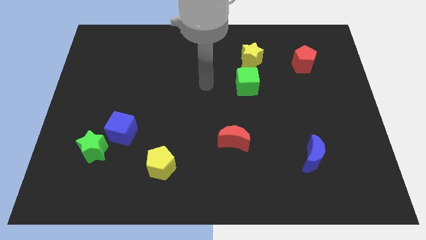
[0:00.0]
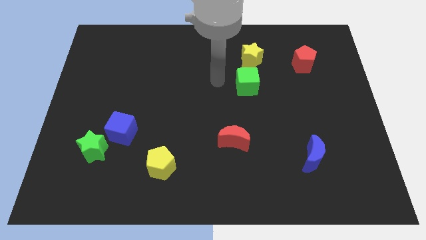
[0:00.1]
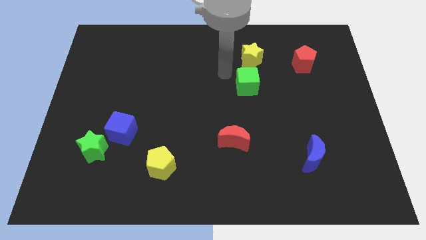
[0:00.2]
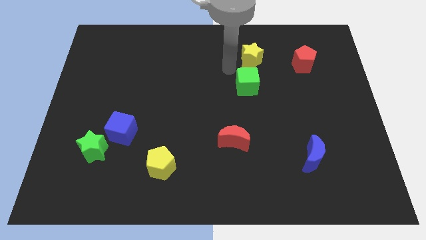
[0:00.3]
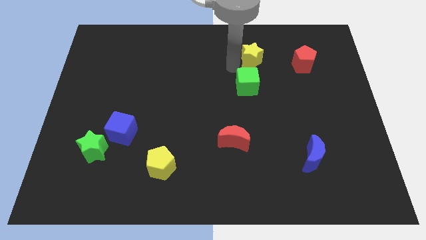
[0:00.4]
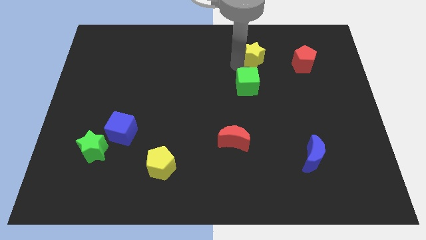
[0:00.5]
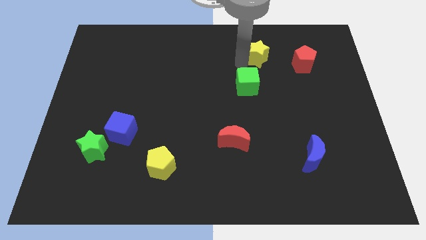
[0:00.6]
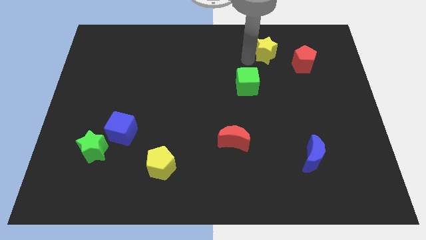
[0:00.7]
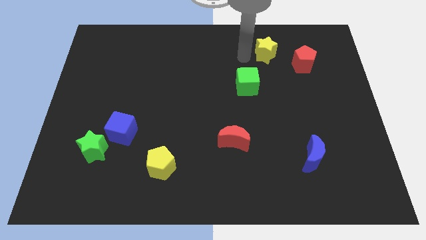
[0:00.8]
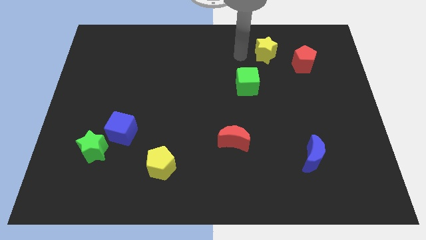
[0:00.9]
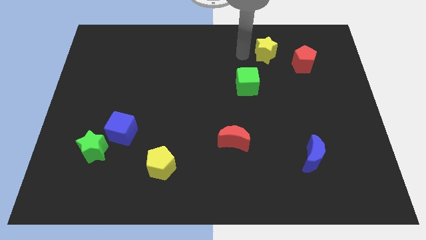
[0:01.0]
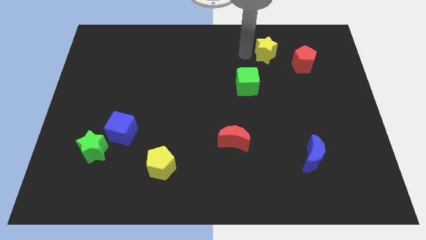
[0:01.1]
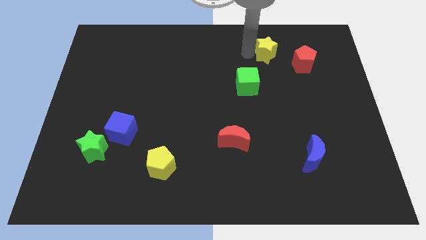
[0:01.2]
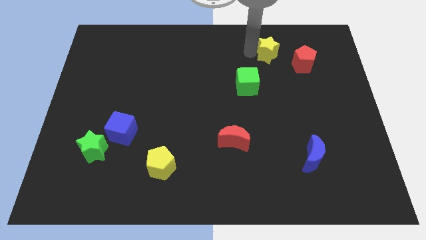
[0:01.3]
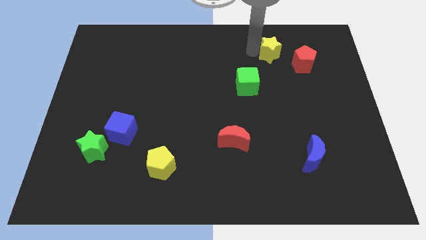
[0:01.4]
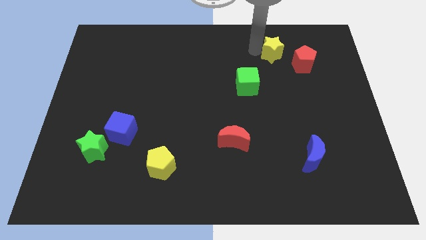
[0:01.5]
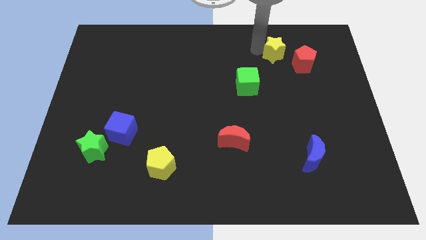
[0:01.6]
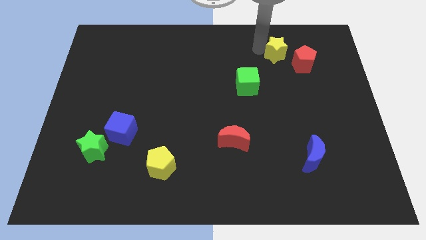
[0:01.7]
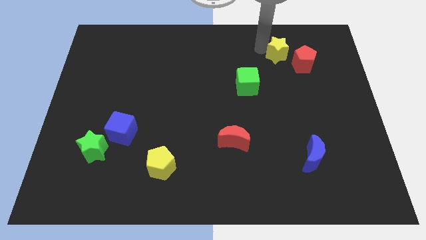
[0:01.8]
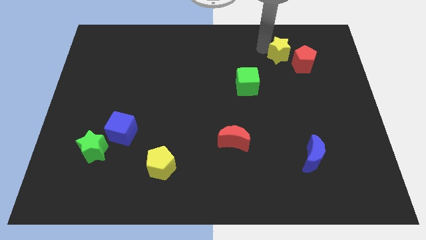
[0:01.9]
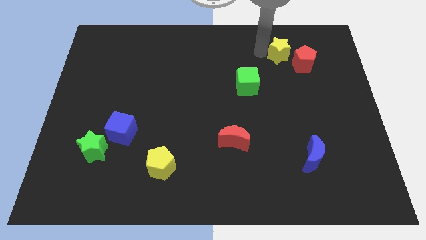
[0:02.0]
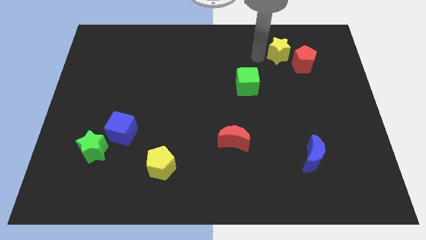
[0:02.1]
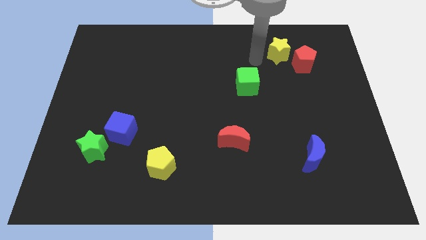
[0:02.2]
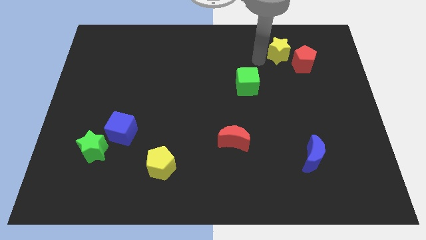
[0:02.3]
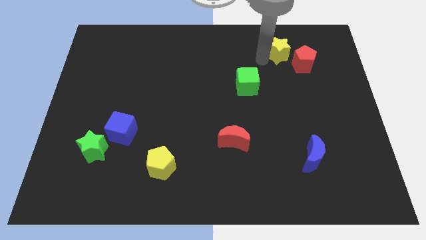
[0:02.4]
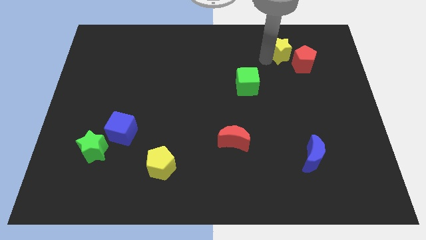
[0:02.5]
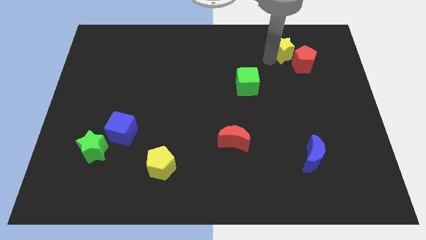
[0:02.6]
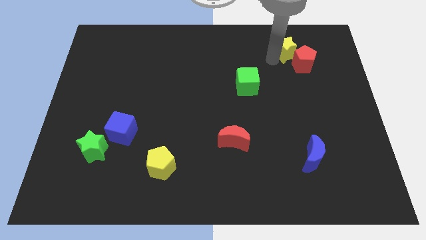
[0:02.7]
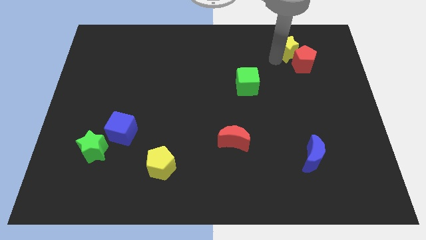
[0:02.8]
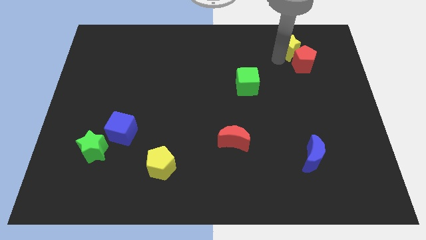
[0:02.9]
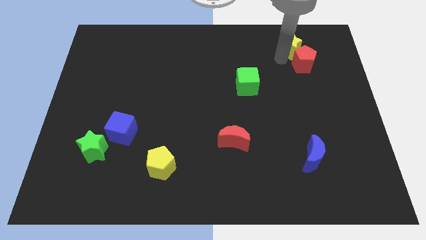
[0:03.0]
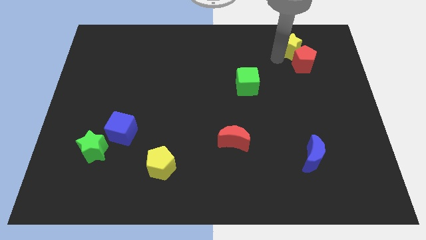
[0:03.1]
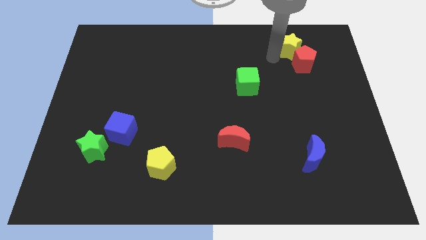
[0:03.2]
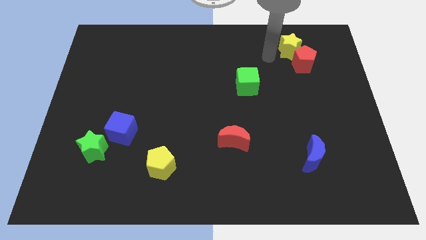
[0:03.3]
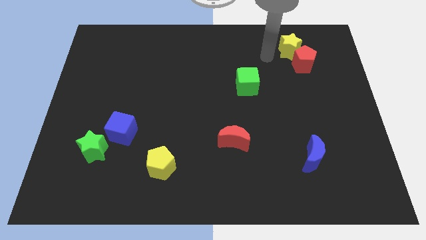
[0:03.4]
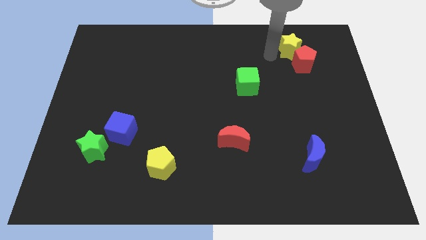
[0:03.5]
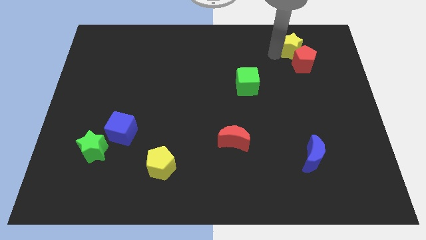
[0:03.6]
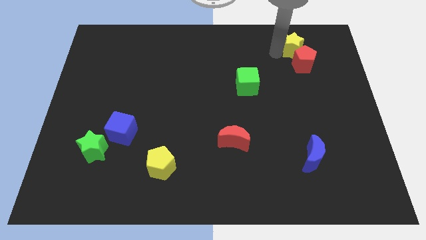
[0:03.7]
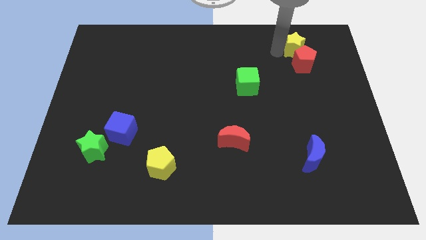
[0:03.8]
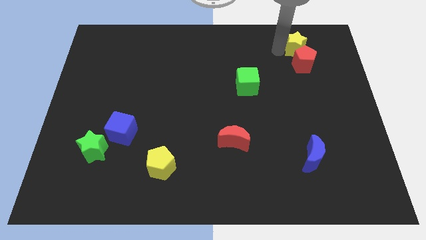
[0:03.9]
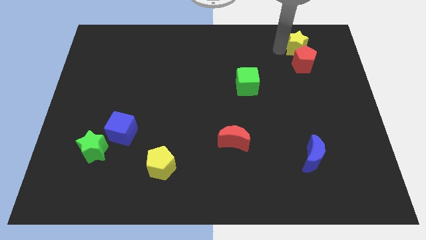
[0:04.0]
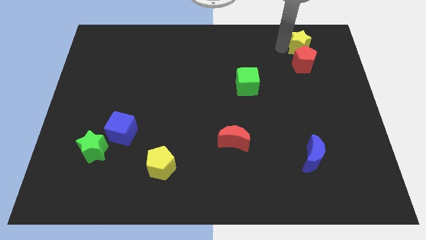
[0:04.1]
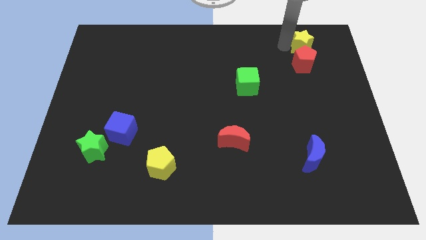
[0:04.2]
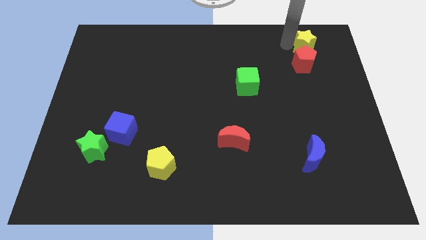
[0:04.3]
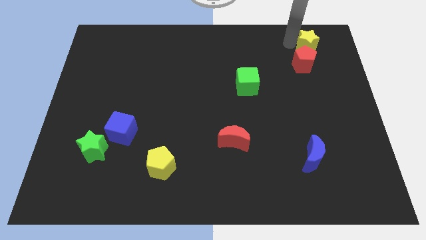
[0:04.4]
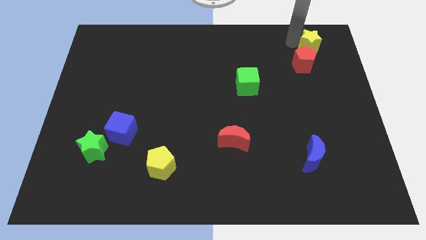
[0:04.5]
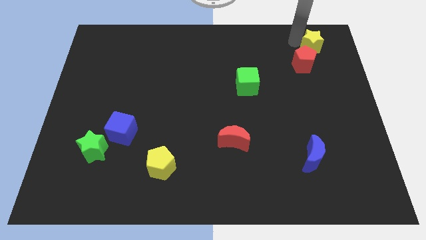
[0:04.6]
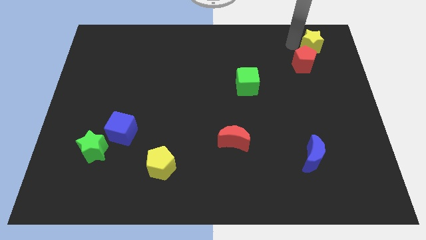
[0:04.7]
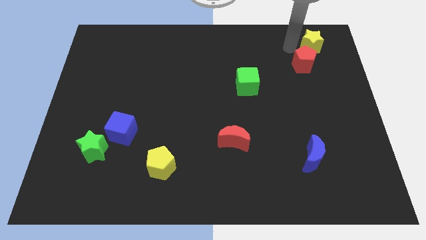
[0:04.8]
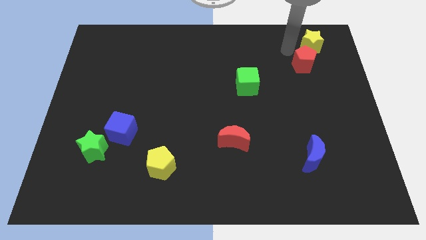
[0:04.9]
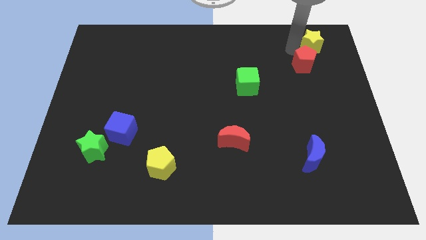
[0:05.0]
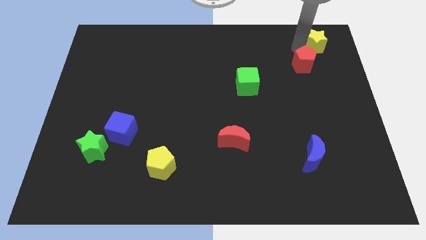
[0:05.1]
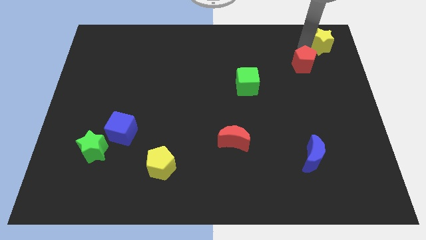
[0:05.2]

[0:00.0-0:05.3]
put the yellow star to the top right of the board

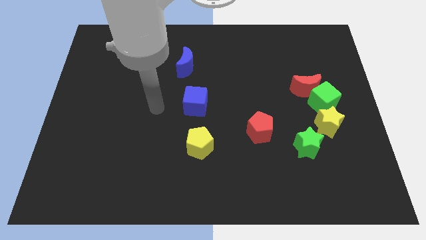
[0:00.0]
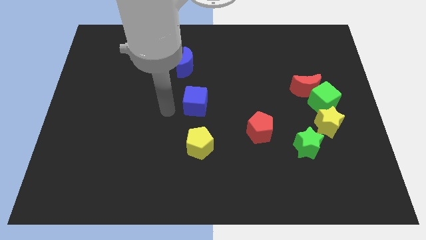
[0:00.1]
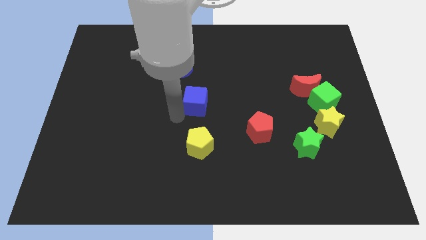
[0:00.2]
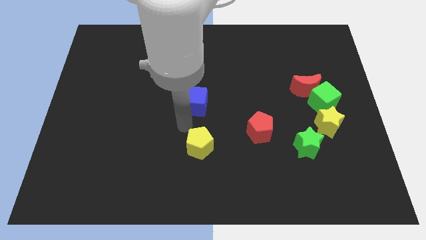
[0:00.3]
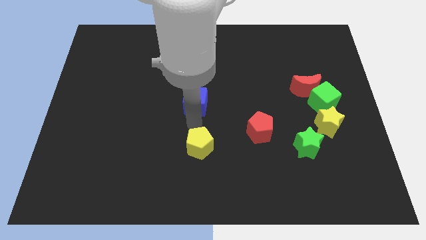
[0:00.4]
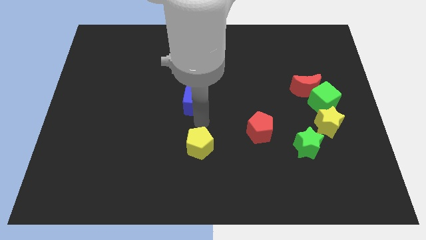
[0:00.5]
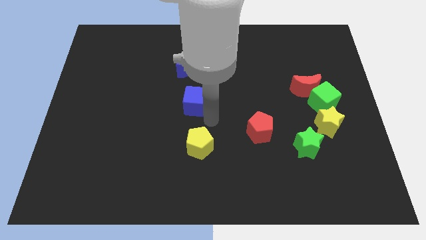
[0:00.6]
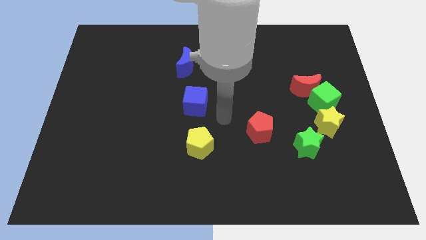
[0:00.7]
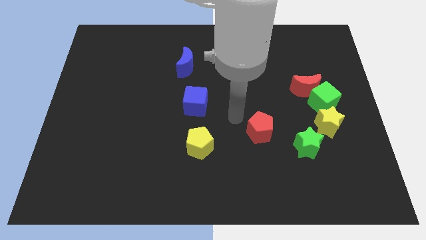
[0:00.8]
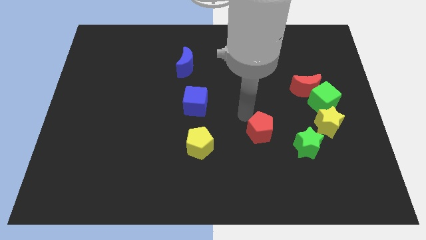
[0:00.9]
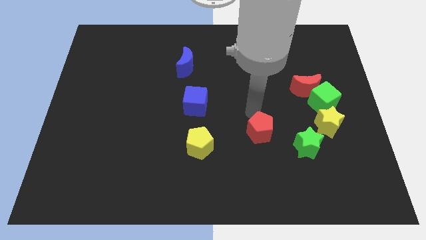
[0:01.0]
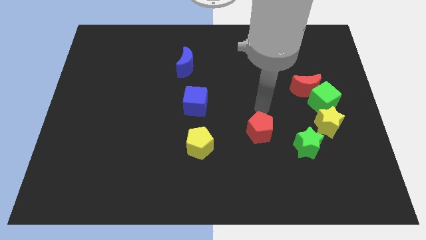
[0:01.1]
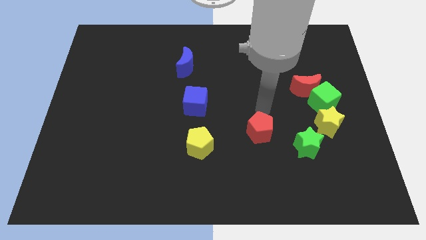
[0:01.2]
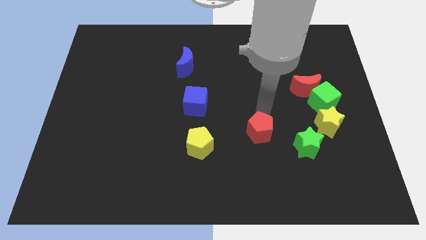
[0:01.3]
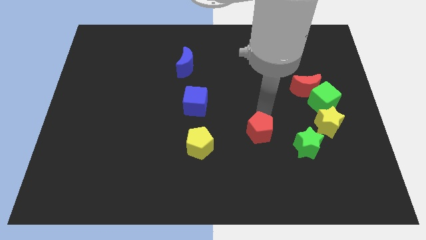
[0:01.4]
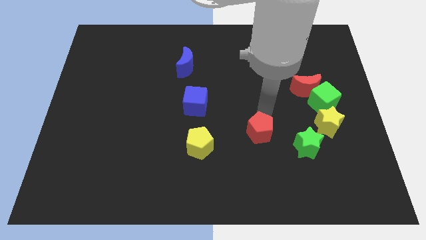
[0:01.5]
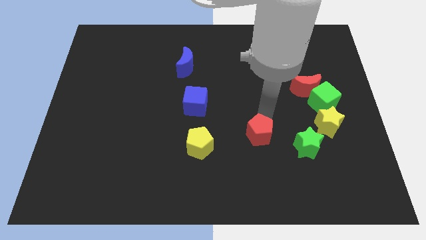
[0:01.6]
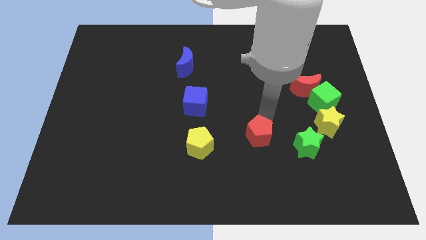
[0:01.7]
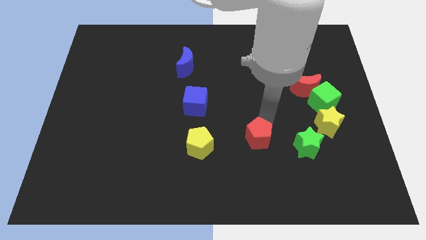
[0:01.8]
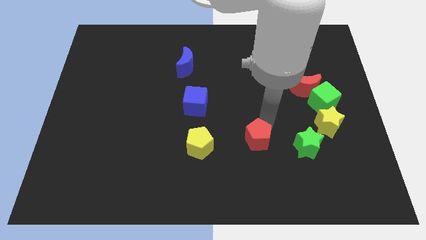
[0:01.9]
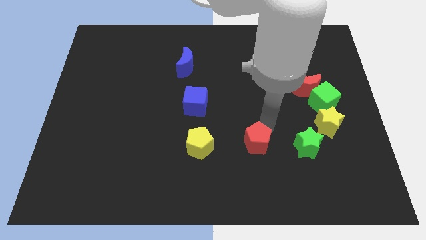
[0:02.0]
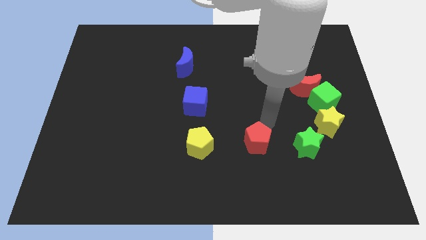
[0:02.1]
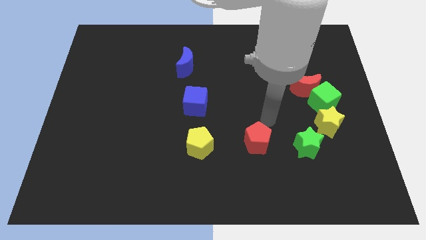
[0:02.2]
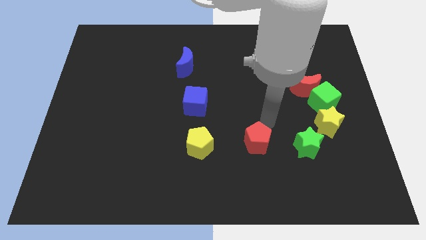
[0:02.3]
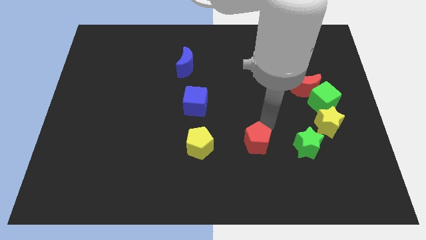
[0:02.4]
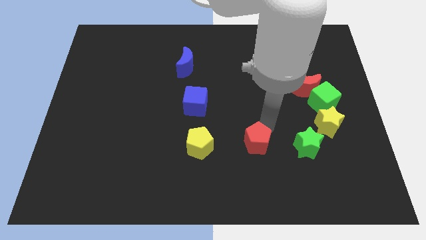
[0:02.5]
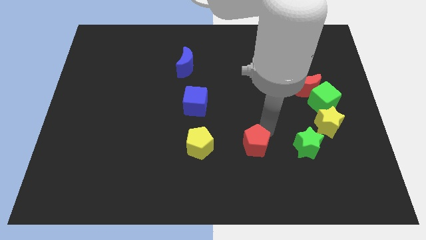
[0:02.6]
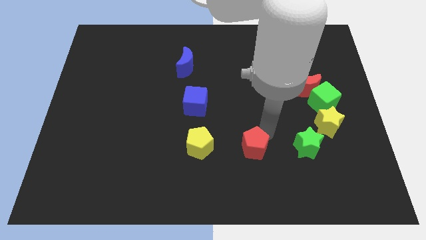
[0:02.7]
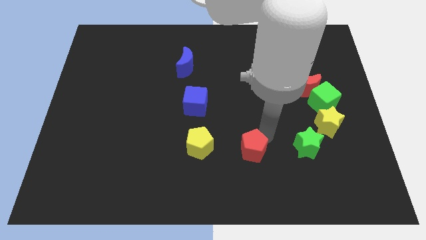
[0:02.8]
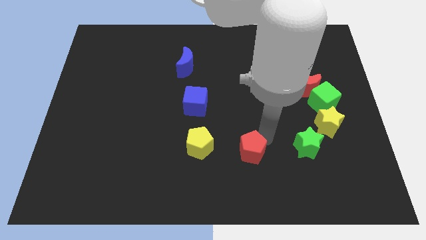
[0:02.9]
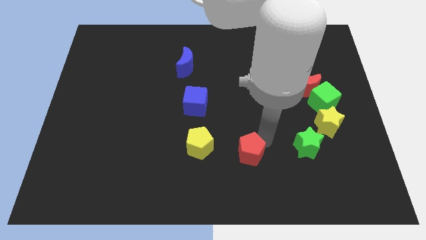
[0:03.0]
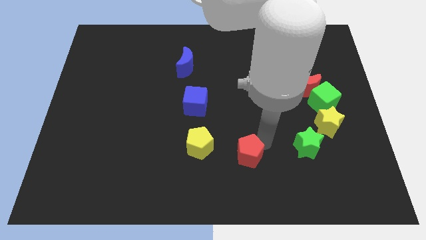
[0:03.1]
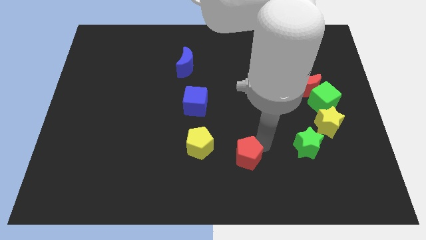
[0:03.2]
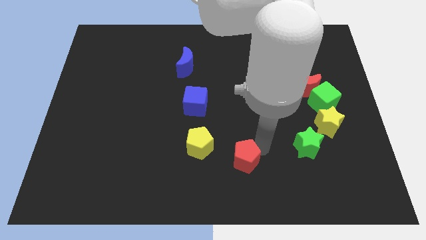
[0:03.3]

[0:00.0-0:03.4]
slide the red pentagon to the bottom side
